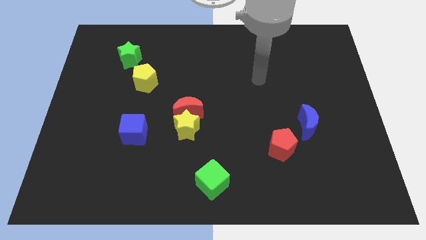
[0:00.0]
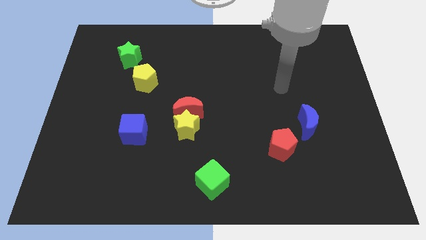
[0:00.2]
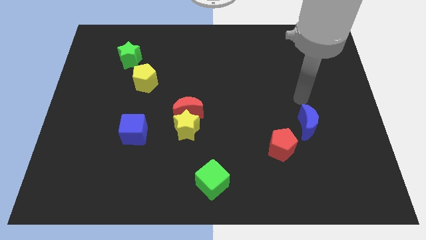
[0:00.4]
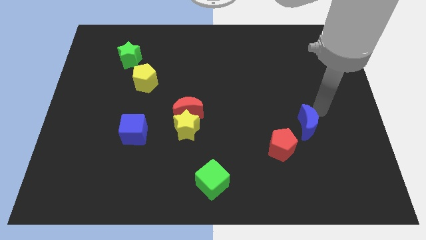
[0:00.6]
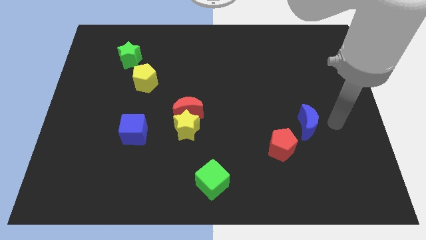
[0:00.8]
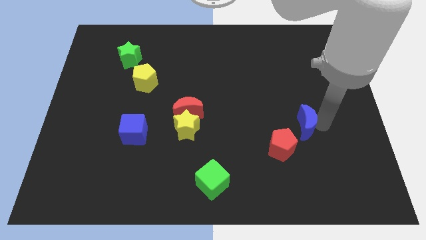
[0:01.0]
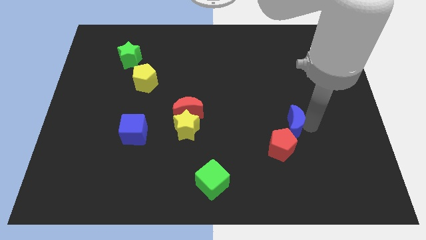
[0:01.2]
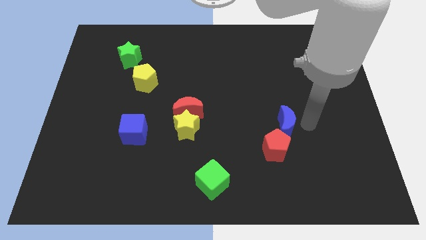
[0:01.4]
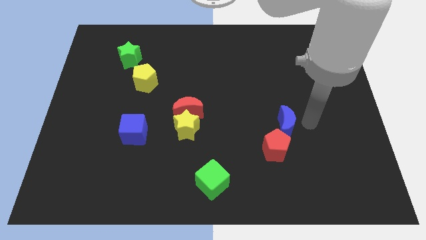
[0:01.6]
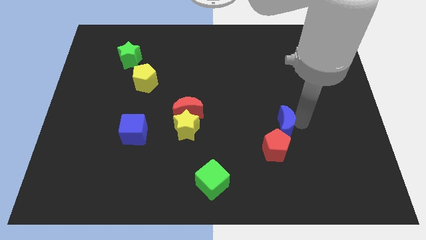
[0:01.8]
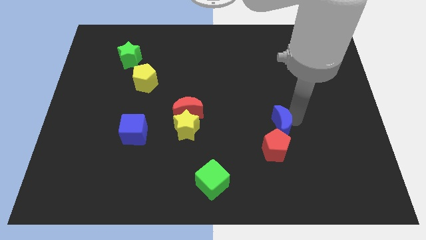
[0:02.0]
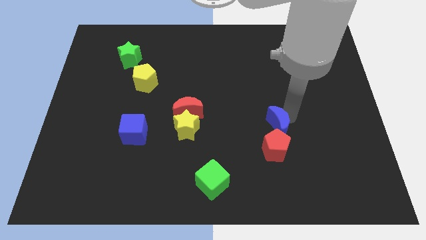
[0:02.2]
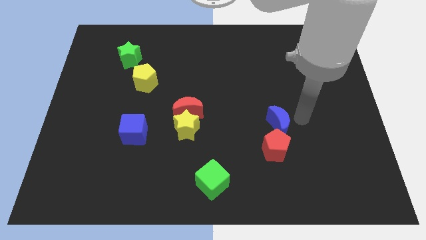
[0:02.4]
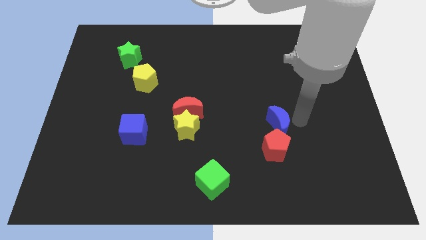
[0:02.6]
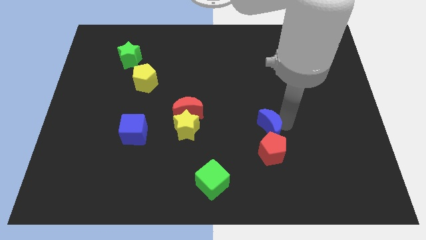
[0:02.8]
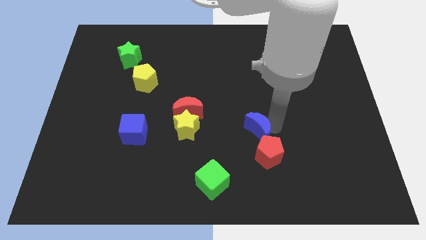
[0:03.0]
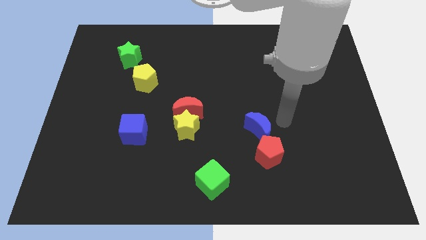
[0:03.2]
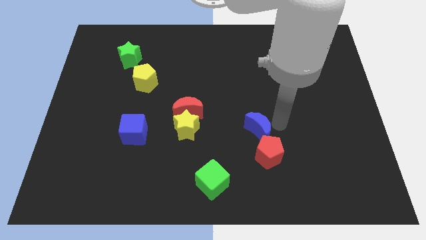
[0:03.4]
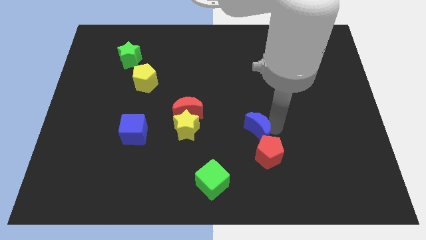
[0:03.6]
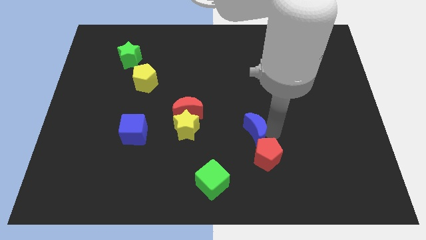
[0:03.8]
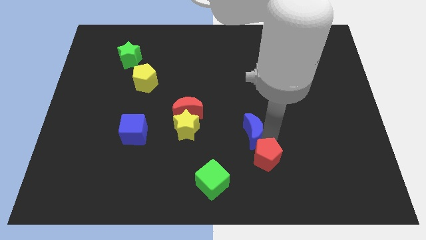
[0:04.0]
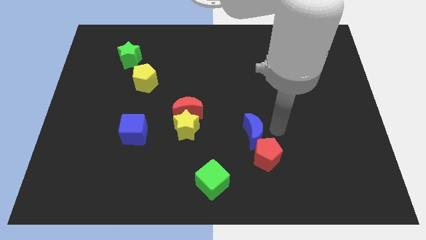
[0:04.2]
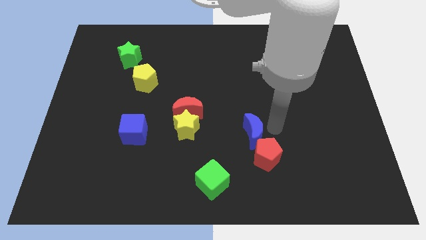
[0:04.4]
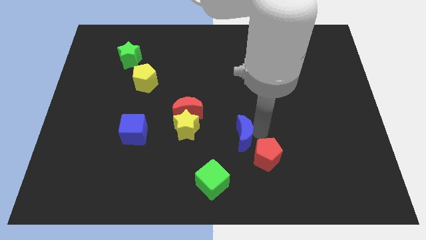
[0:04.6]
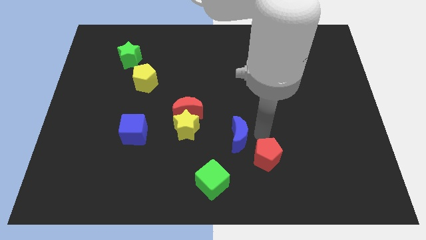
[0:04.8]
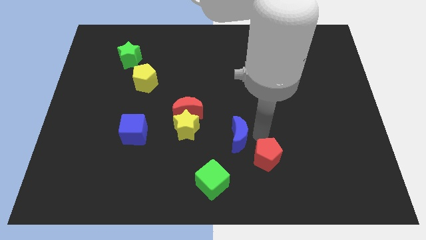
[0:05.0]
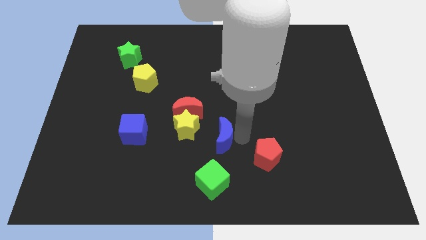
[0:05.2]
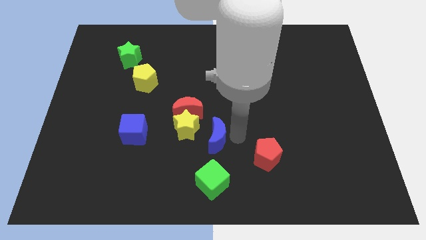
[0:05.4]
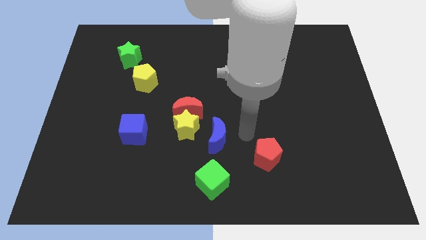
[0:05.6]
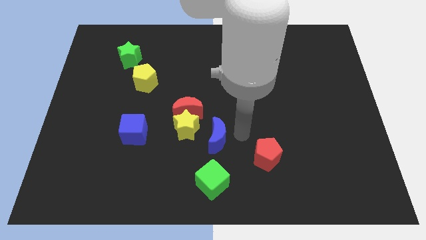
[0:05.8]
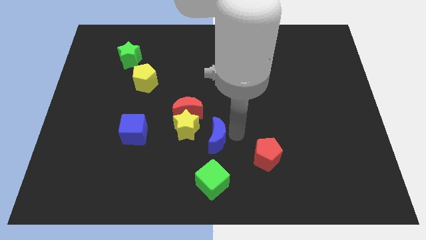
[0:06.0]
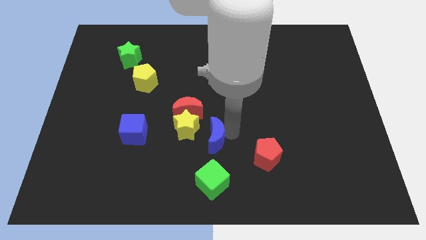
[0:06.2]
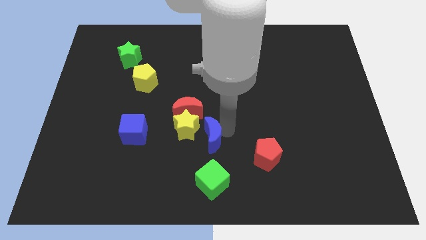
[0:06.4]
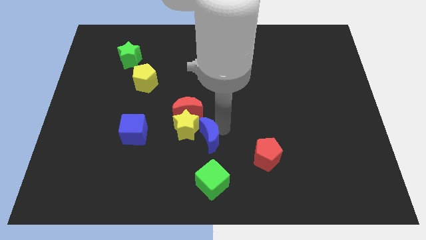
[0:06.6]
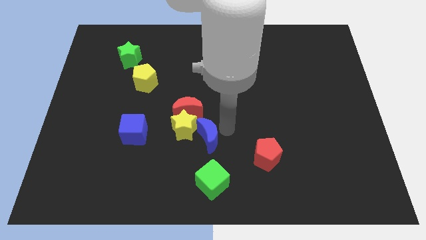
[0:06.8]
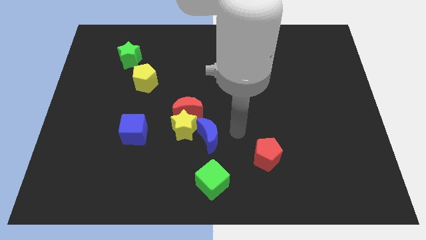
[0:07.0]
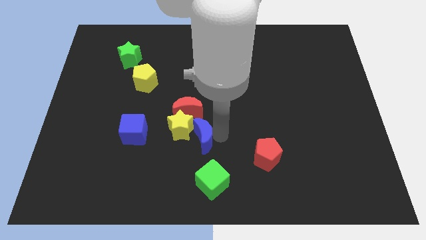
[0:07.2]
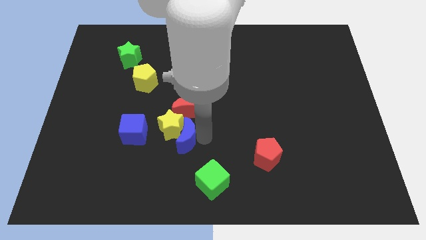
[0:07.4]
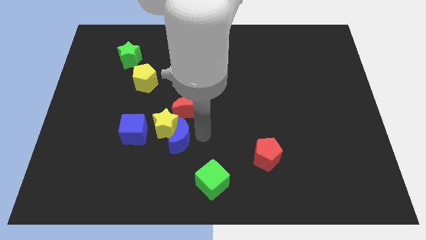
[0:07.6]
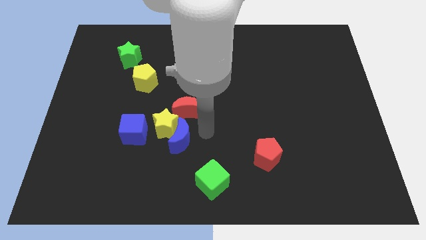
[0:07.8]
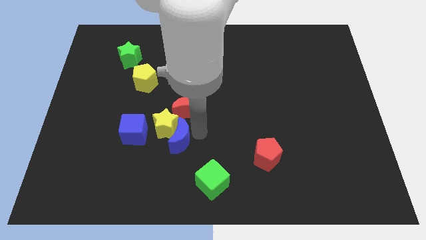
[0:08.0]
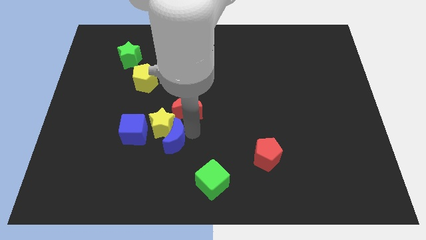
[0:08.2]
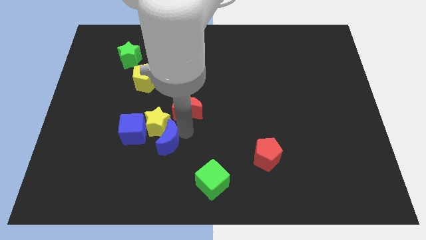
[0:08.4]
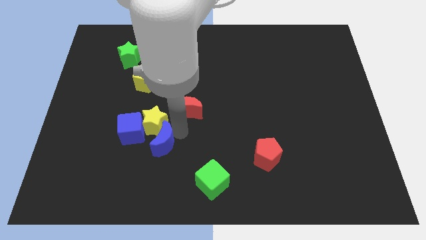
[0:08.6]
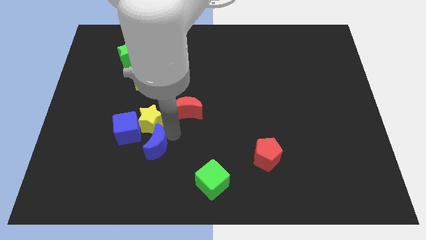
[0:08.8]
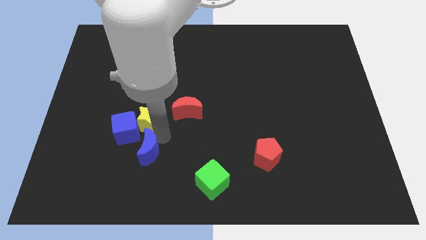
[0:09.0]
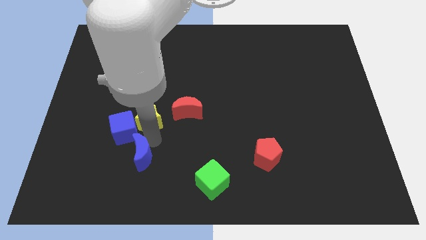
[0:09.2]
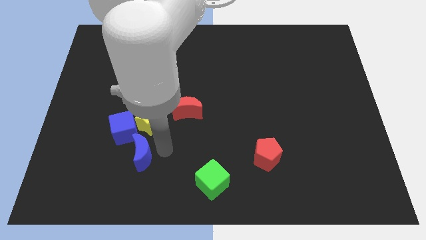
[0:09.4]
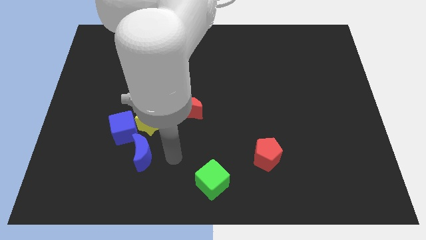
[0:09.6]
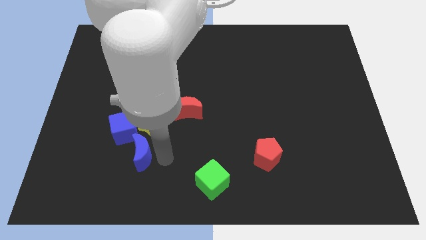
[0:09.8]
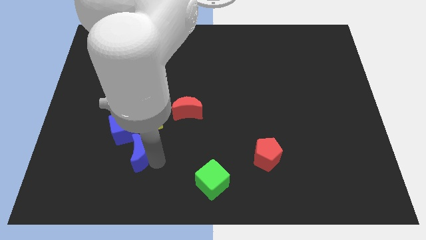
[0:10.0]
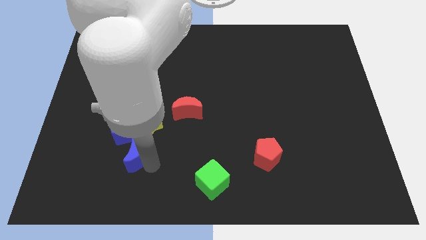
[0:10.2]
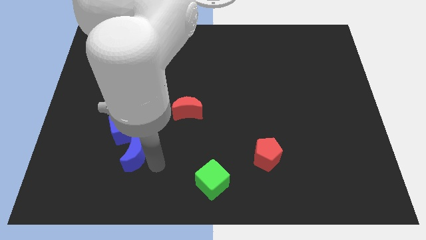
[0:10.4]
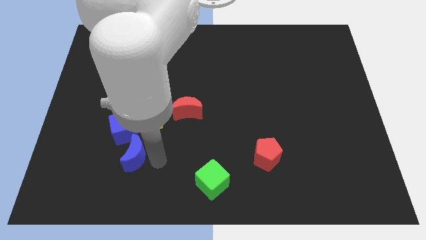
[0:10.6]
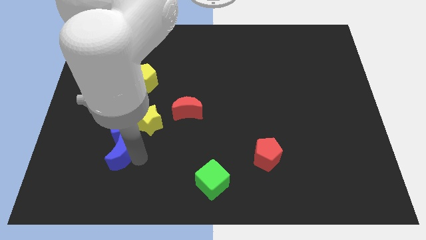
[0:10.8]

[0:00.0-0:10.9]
push the blue moon to the bottom left side of the blue cube

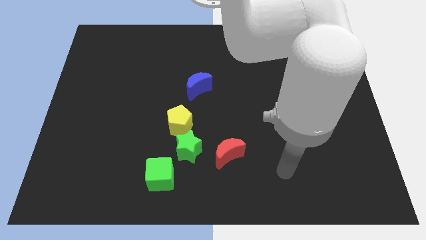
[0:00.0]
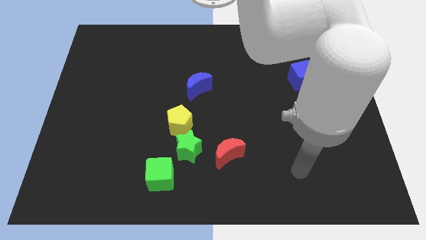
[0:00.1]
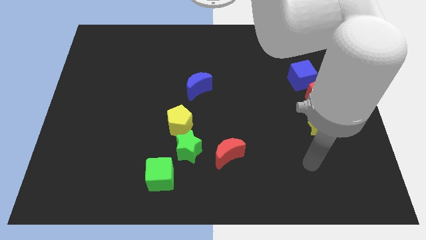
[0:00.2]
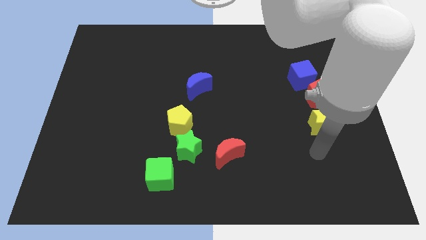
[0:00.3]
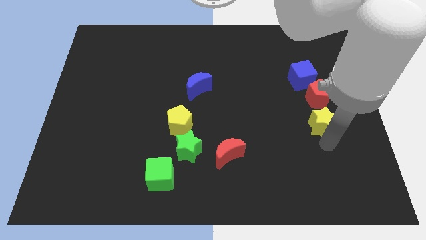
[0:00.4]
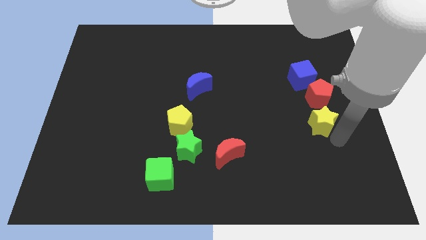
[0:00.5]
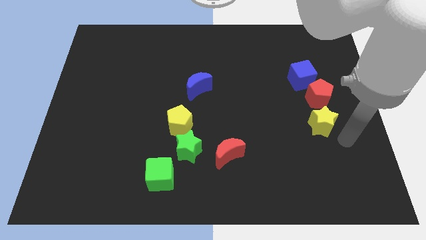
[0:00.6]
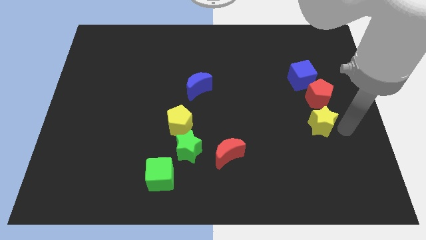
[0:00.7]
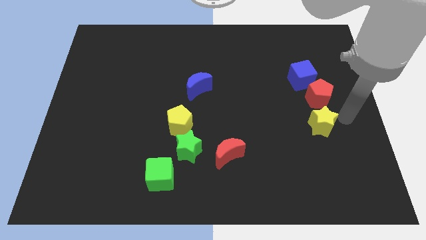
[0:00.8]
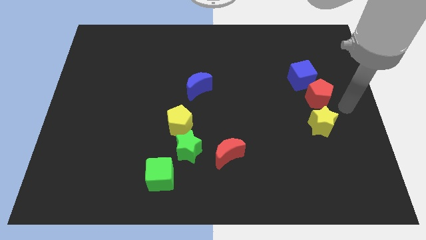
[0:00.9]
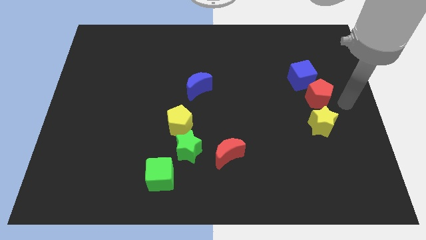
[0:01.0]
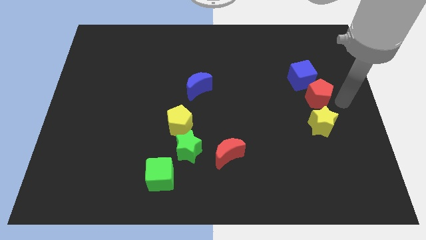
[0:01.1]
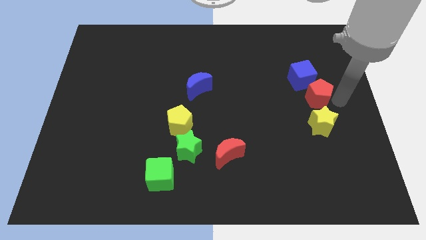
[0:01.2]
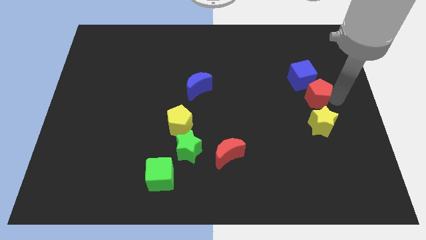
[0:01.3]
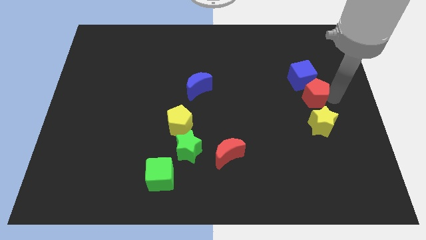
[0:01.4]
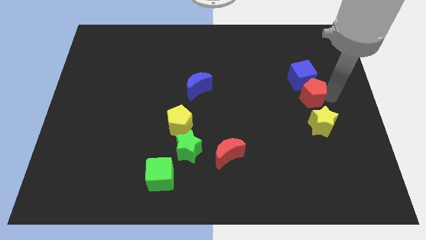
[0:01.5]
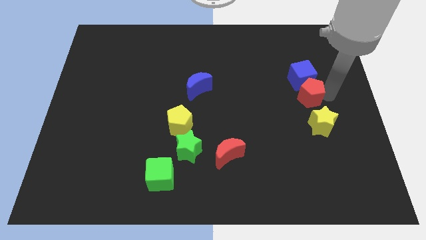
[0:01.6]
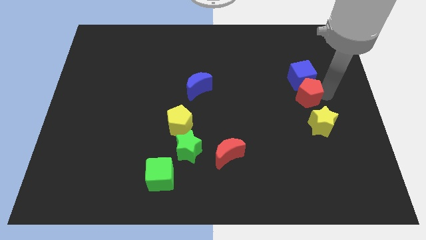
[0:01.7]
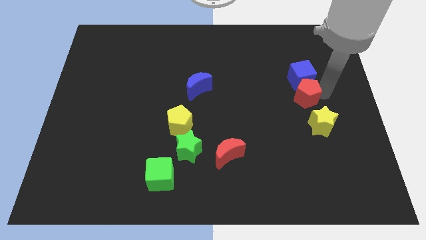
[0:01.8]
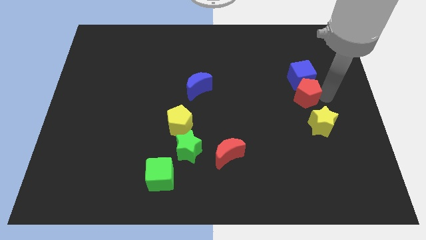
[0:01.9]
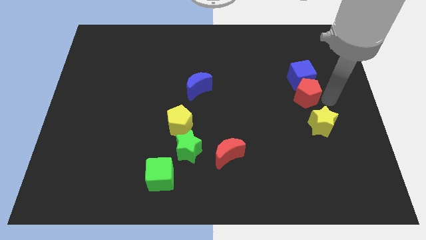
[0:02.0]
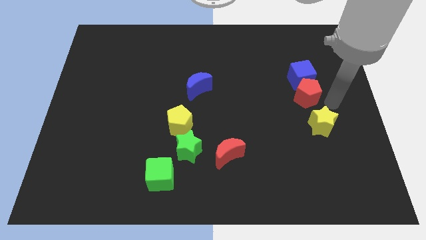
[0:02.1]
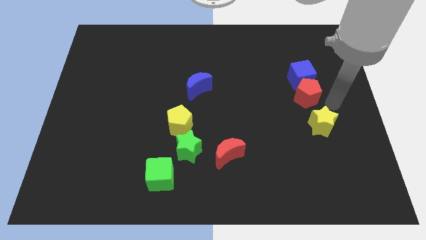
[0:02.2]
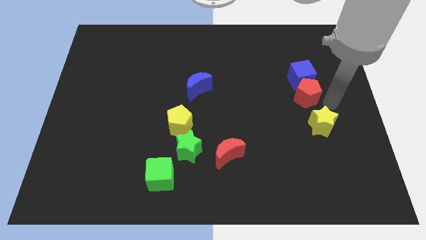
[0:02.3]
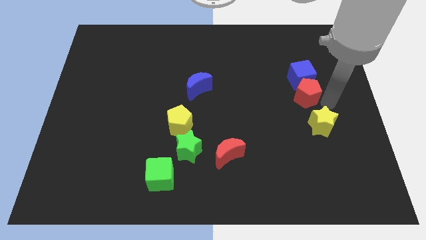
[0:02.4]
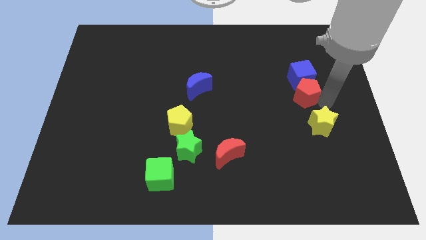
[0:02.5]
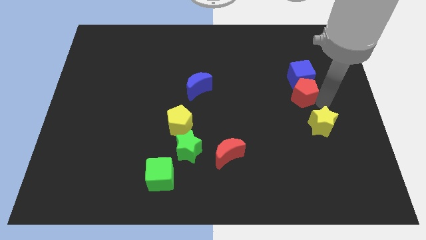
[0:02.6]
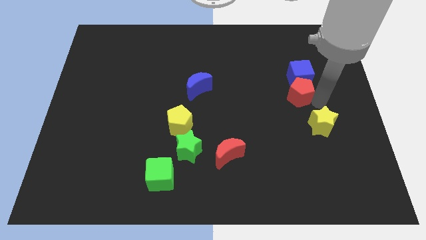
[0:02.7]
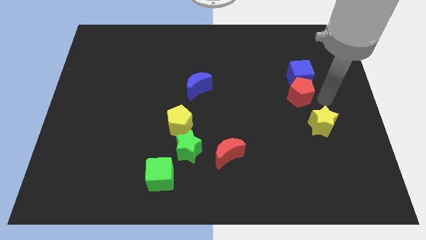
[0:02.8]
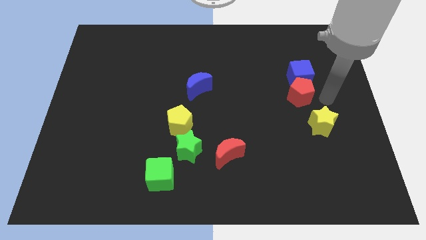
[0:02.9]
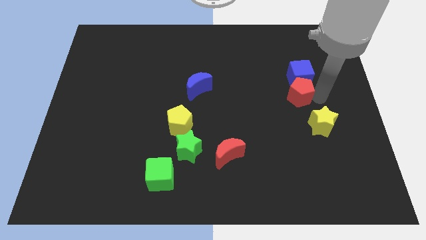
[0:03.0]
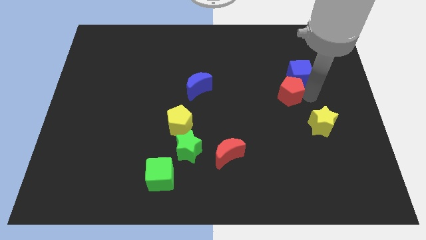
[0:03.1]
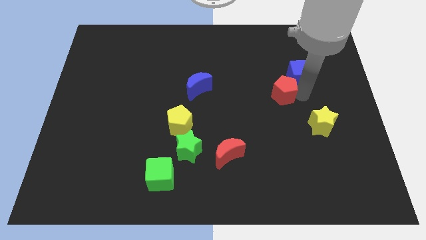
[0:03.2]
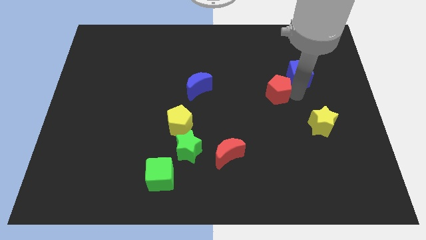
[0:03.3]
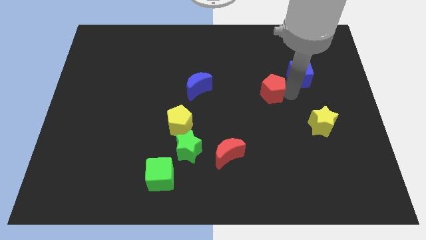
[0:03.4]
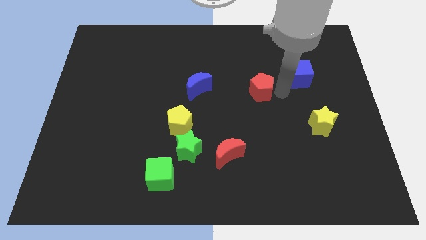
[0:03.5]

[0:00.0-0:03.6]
put the red pentagon to the right side of the blue moon
